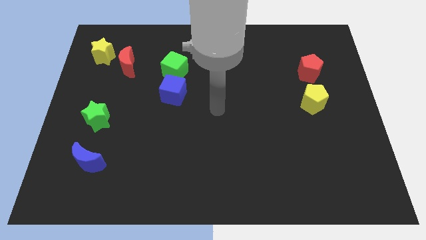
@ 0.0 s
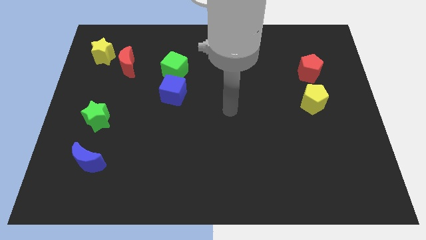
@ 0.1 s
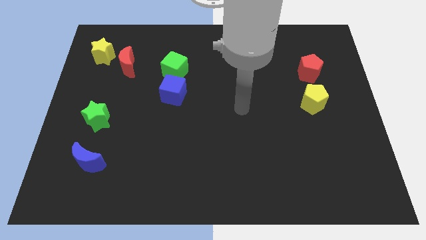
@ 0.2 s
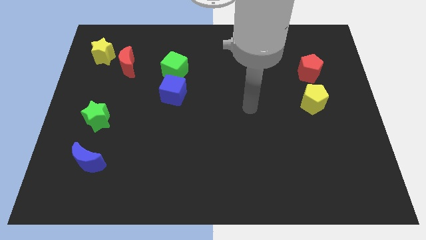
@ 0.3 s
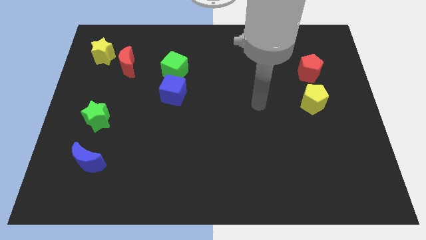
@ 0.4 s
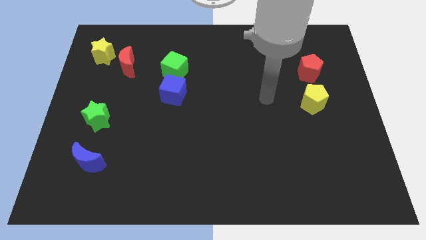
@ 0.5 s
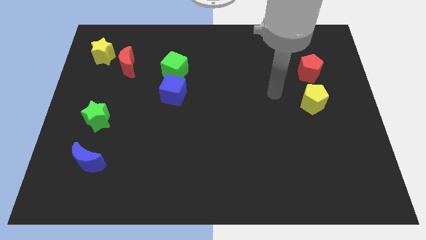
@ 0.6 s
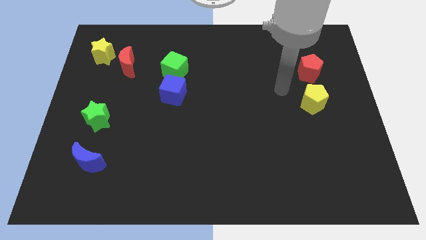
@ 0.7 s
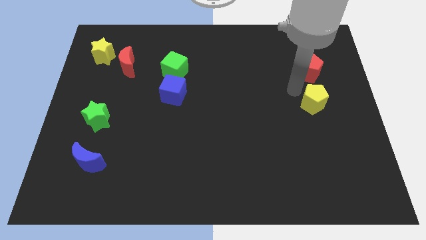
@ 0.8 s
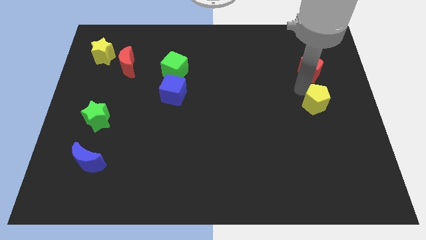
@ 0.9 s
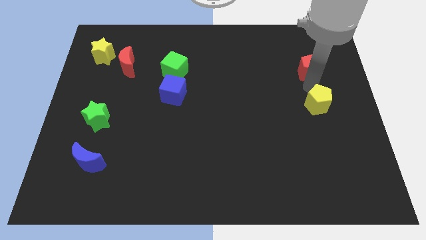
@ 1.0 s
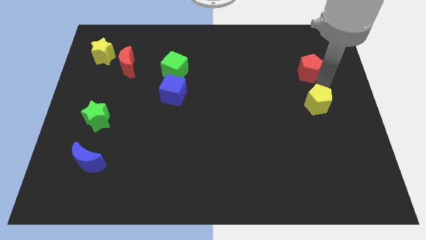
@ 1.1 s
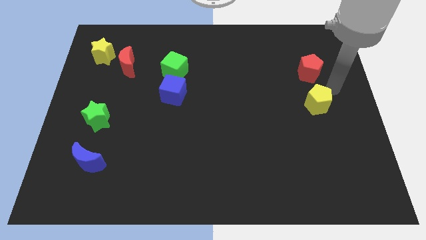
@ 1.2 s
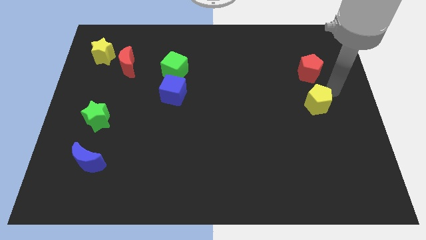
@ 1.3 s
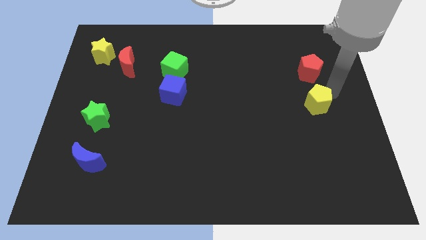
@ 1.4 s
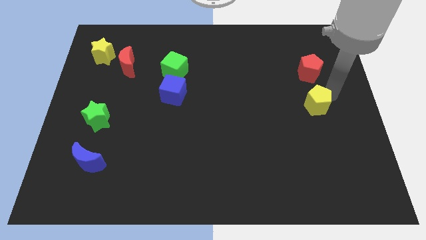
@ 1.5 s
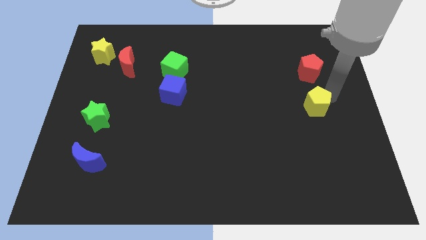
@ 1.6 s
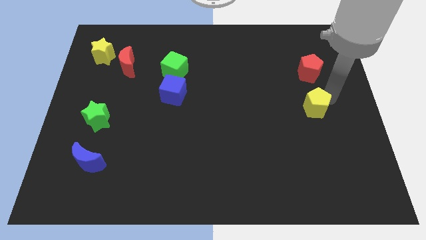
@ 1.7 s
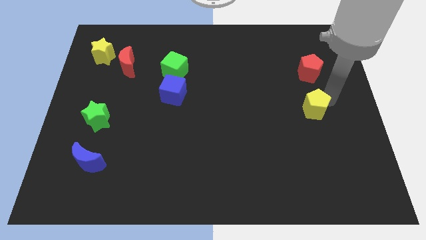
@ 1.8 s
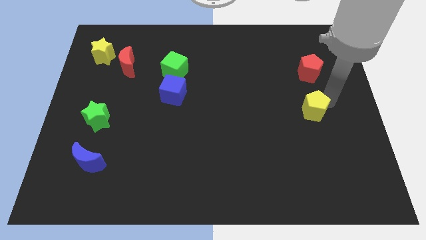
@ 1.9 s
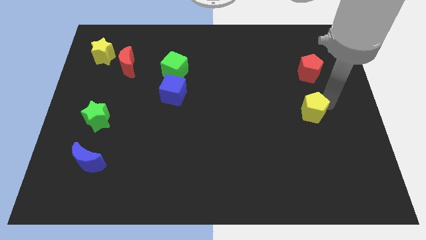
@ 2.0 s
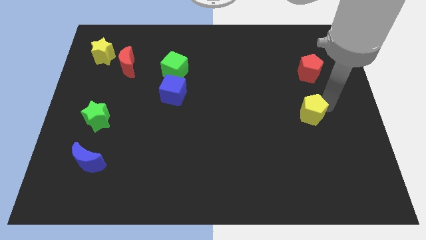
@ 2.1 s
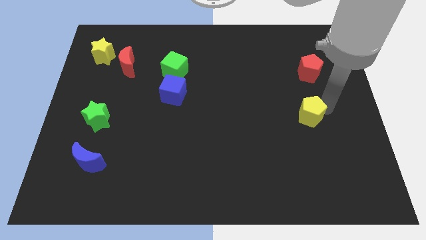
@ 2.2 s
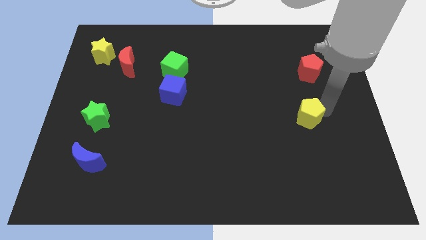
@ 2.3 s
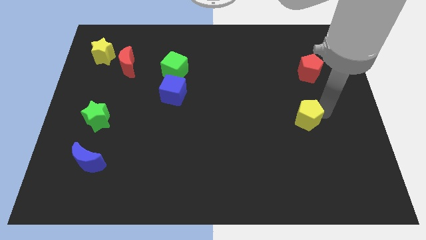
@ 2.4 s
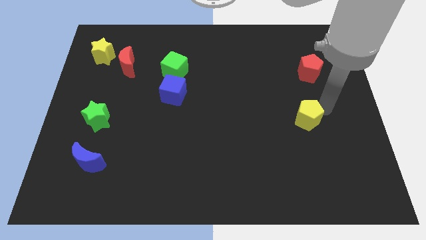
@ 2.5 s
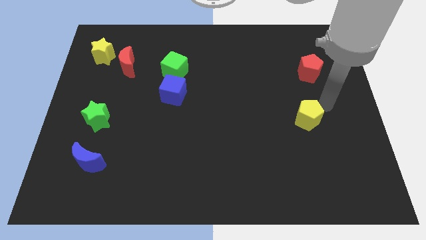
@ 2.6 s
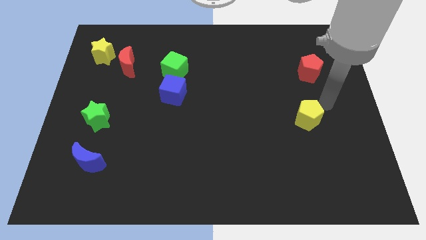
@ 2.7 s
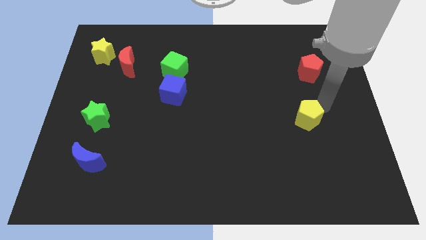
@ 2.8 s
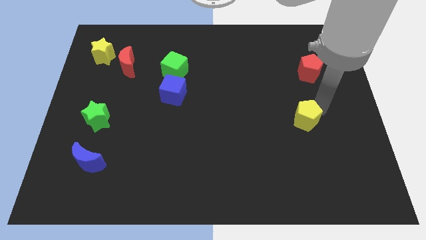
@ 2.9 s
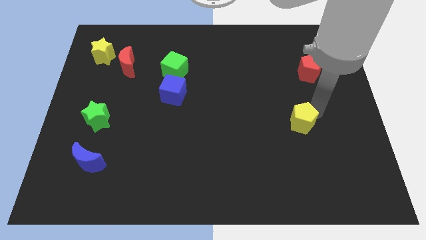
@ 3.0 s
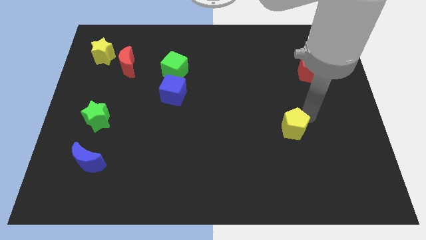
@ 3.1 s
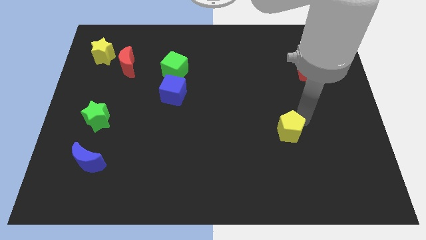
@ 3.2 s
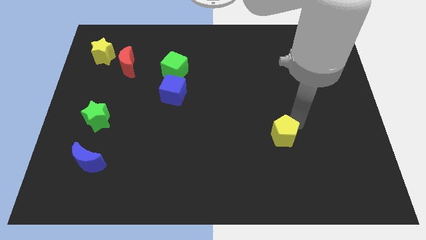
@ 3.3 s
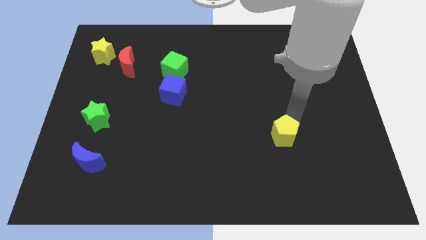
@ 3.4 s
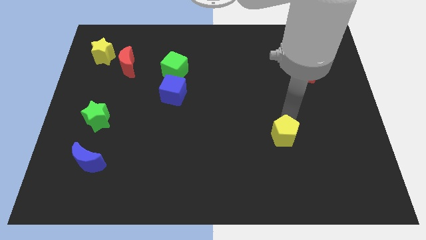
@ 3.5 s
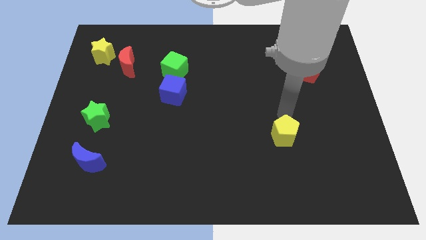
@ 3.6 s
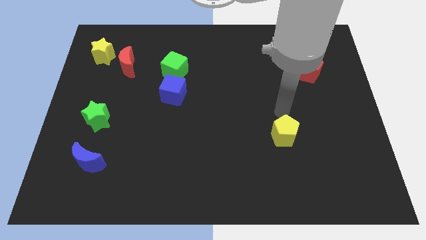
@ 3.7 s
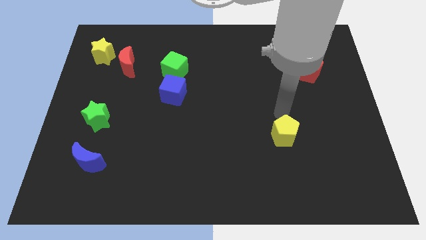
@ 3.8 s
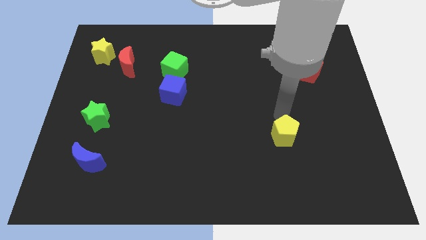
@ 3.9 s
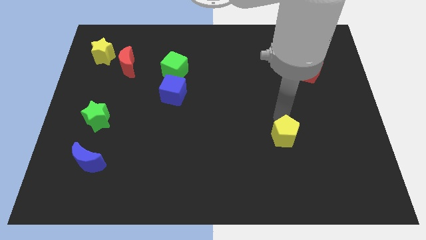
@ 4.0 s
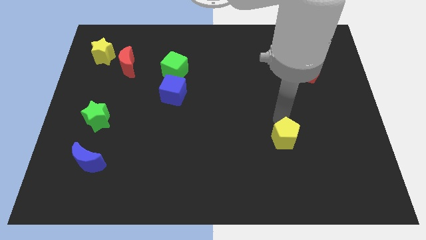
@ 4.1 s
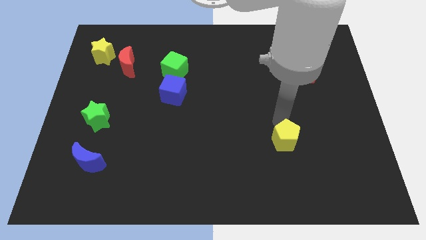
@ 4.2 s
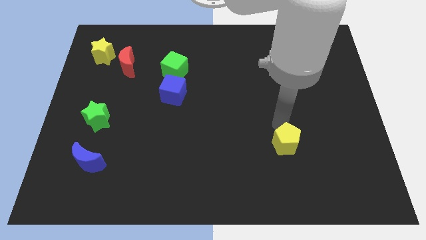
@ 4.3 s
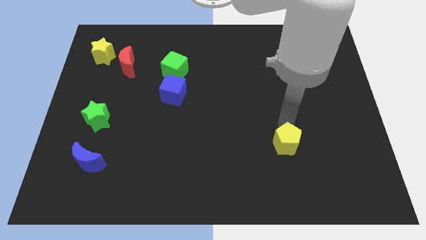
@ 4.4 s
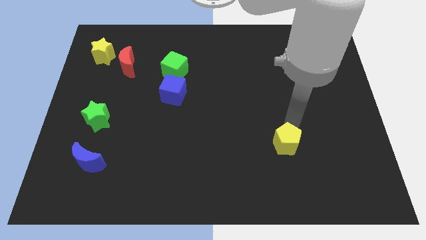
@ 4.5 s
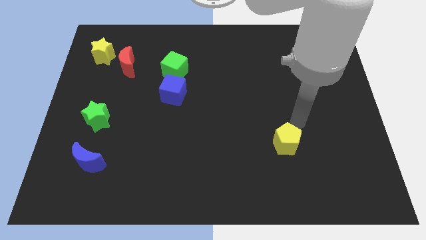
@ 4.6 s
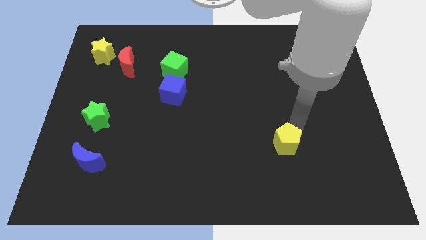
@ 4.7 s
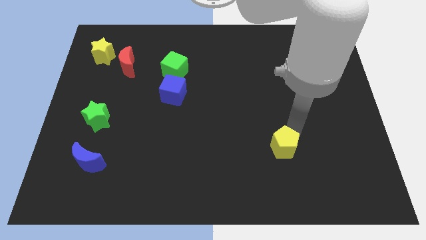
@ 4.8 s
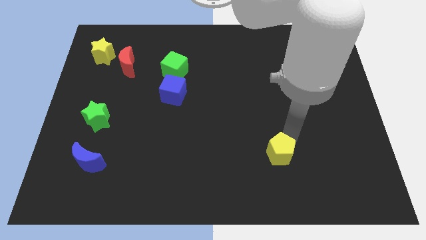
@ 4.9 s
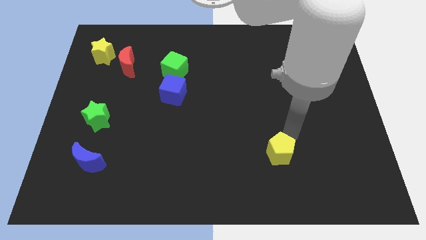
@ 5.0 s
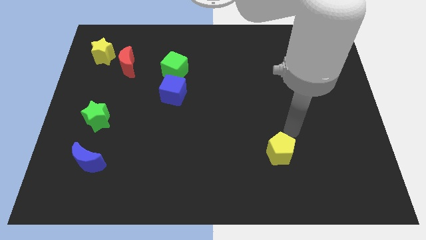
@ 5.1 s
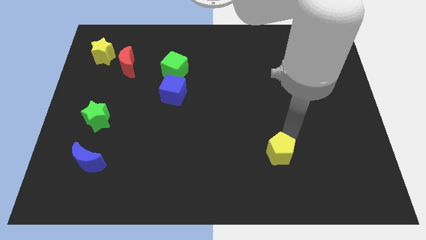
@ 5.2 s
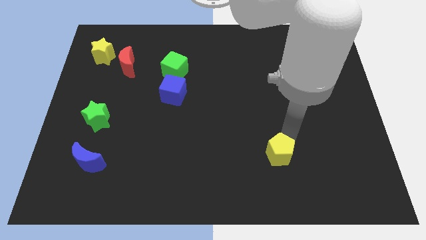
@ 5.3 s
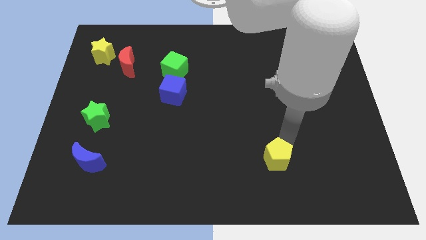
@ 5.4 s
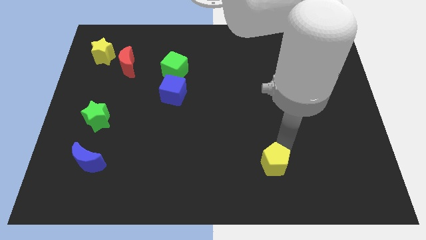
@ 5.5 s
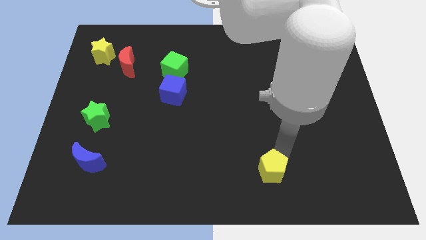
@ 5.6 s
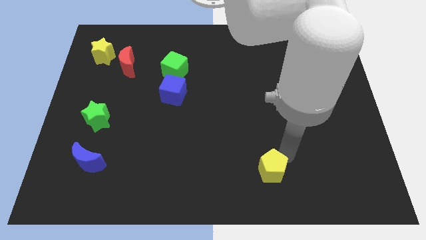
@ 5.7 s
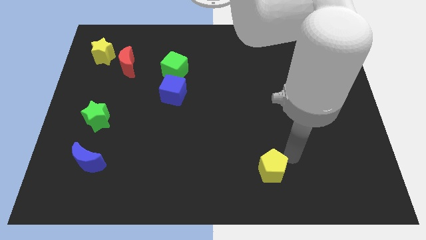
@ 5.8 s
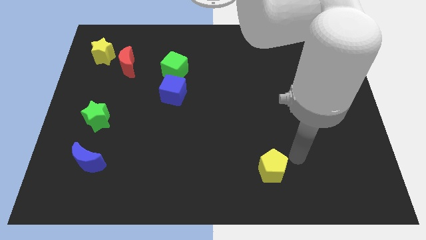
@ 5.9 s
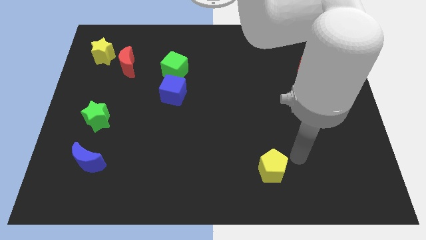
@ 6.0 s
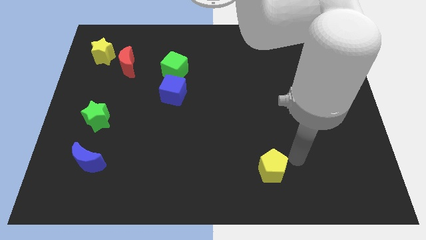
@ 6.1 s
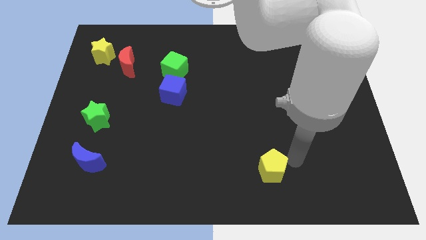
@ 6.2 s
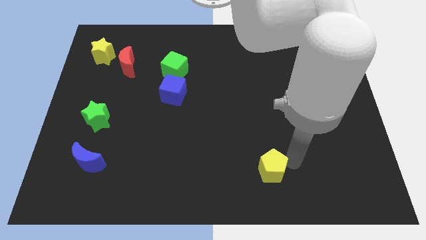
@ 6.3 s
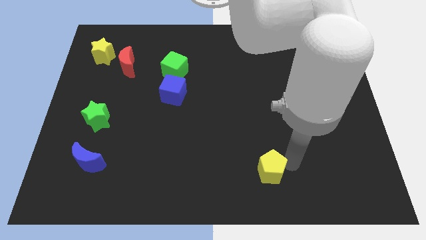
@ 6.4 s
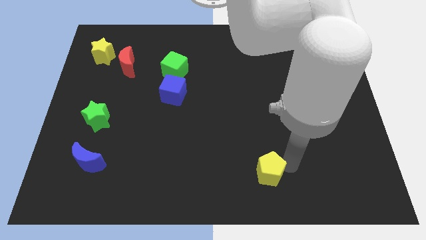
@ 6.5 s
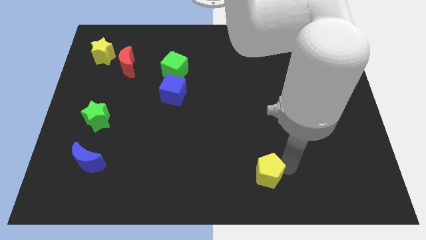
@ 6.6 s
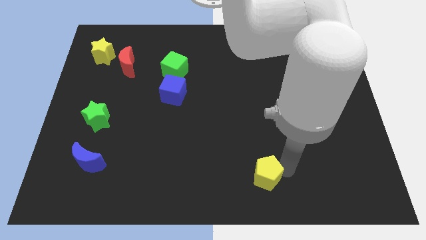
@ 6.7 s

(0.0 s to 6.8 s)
move the yellow pentagon to the bottom
